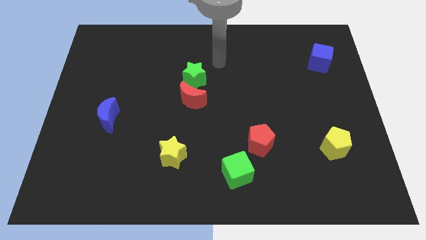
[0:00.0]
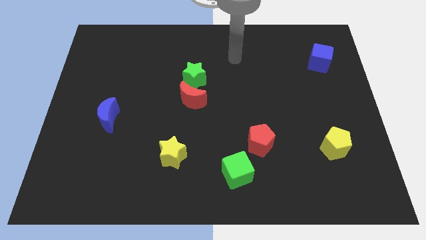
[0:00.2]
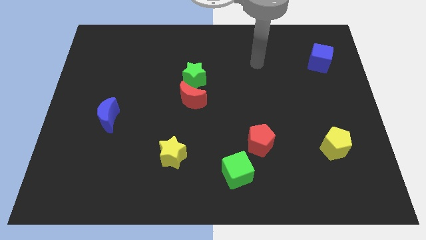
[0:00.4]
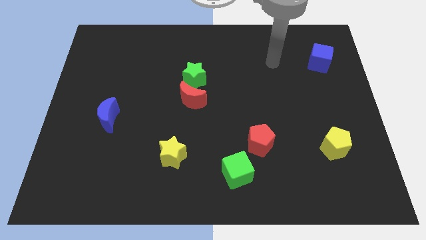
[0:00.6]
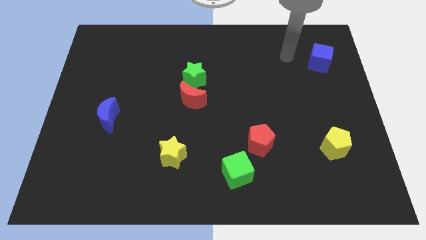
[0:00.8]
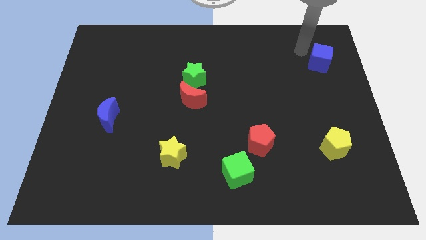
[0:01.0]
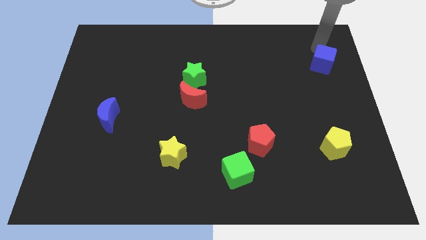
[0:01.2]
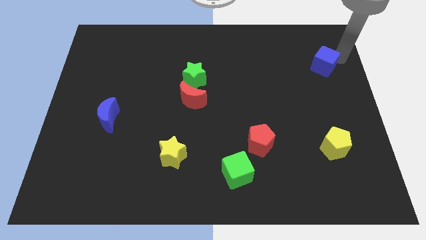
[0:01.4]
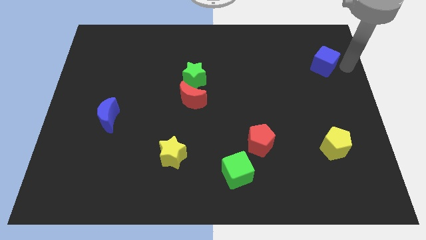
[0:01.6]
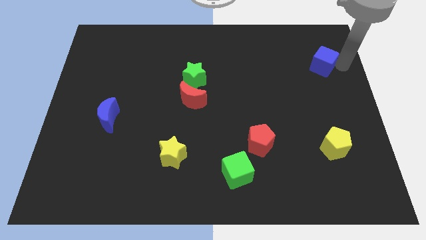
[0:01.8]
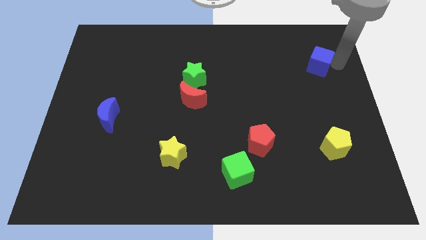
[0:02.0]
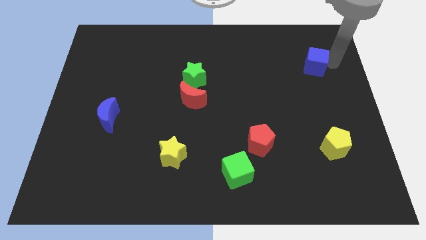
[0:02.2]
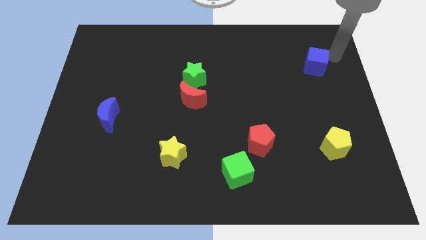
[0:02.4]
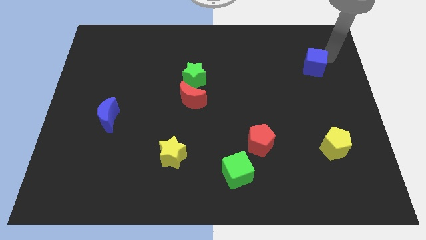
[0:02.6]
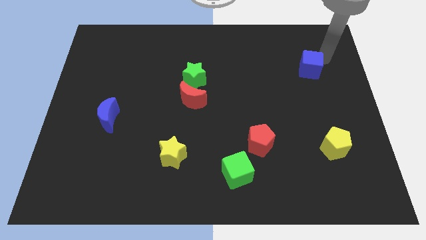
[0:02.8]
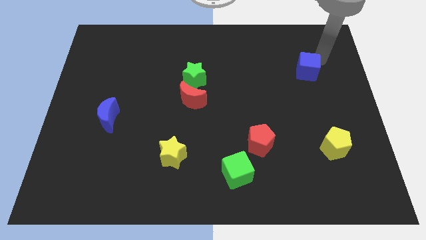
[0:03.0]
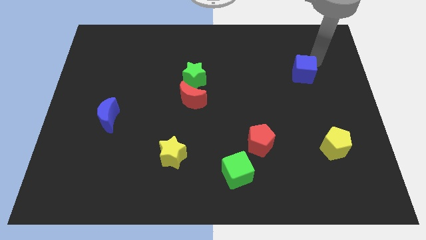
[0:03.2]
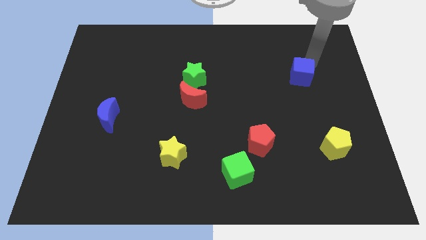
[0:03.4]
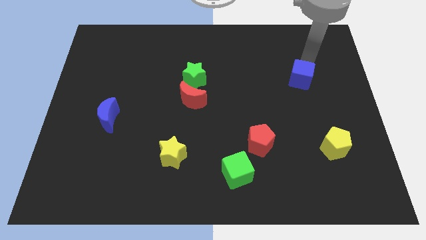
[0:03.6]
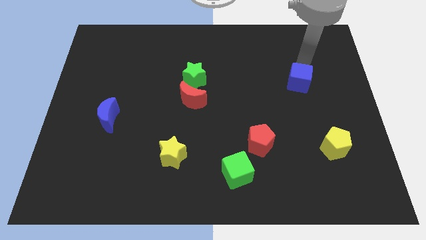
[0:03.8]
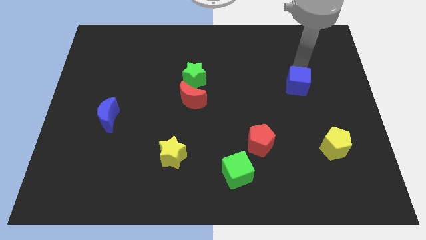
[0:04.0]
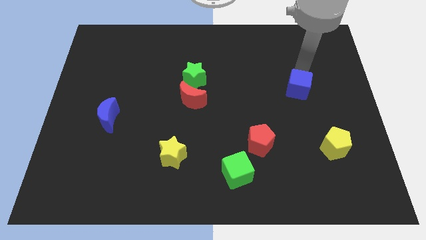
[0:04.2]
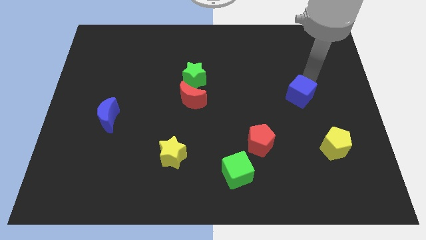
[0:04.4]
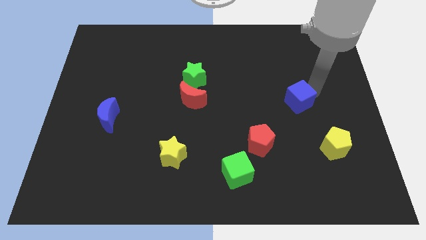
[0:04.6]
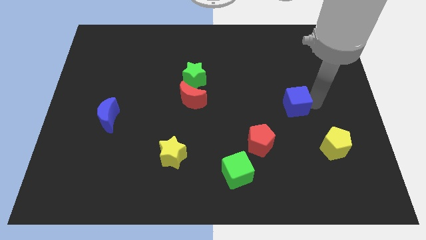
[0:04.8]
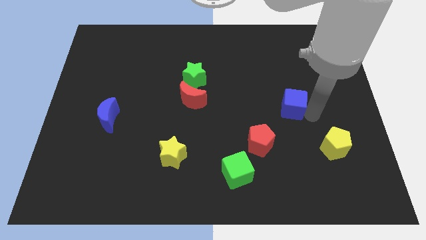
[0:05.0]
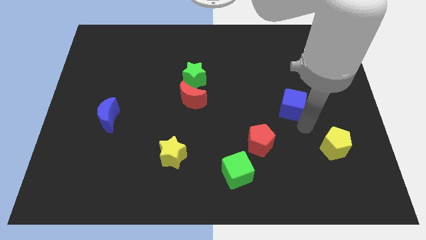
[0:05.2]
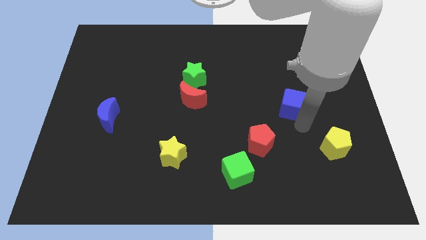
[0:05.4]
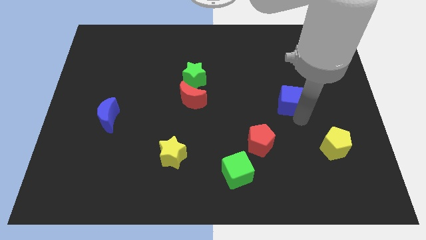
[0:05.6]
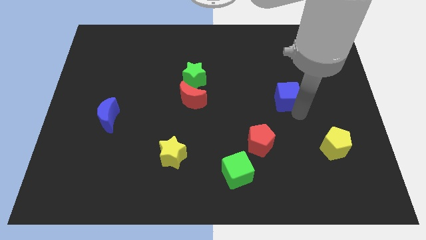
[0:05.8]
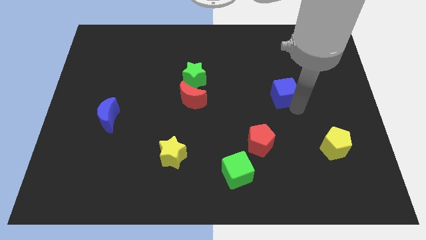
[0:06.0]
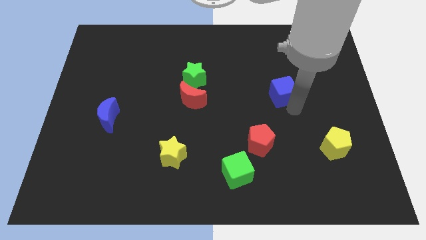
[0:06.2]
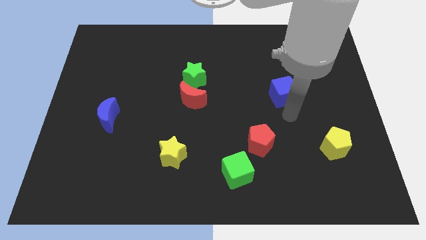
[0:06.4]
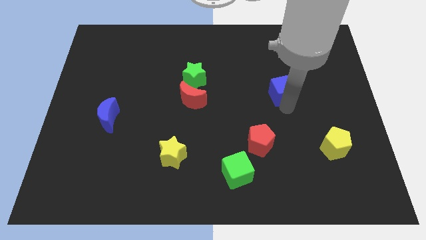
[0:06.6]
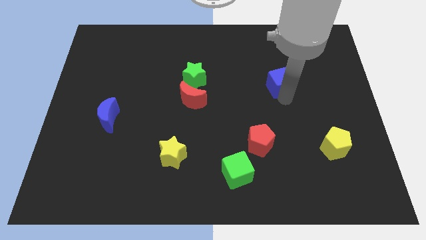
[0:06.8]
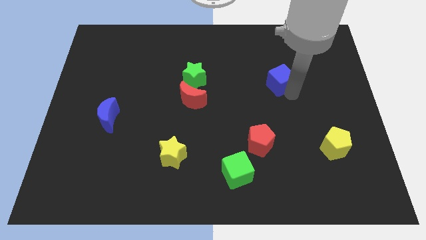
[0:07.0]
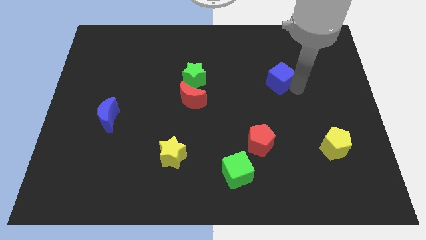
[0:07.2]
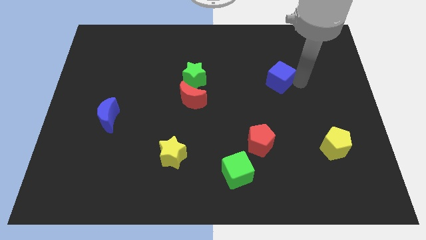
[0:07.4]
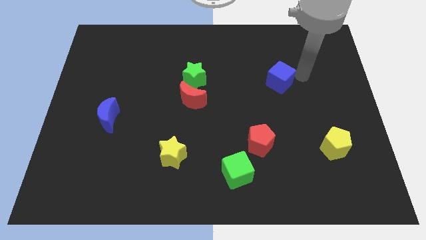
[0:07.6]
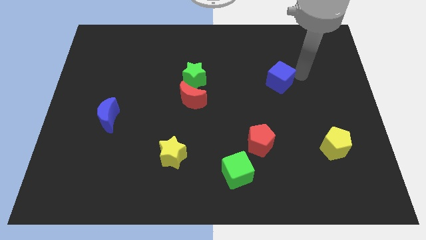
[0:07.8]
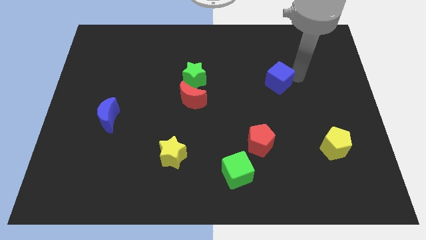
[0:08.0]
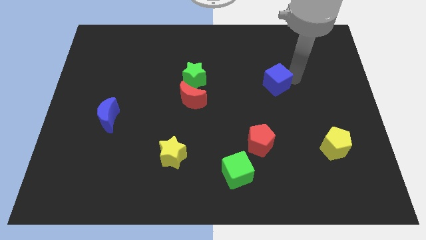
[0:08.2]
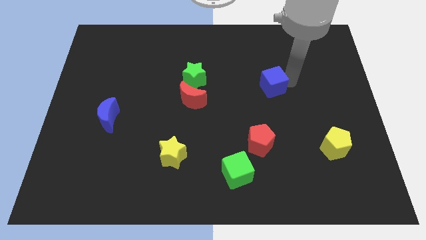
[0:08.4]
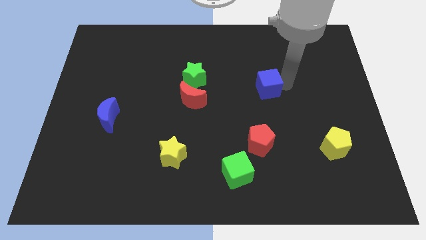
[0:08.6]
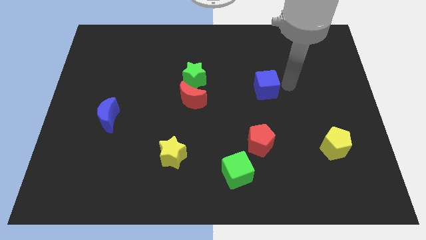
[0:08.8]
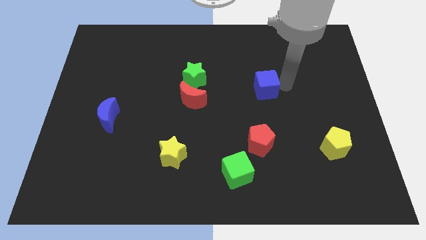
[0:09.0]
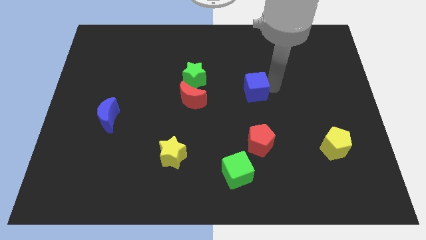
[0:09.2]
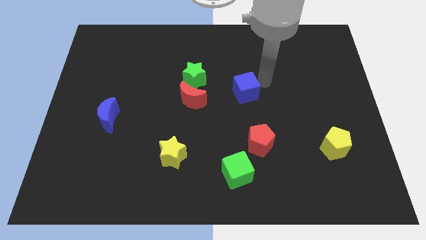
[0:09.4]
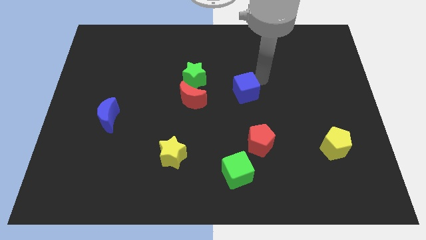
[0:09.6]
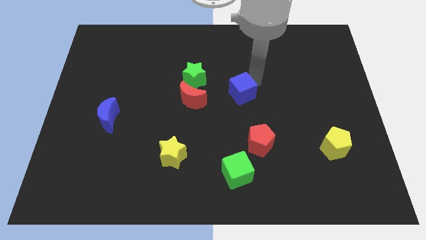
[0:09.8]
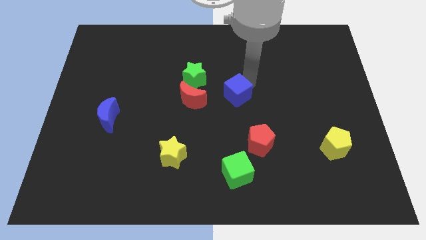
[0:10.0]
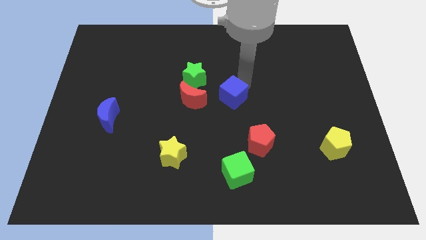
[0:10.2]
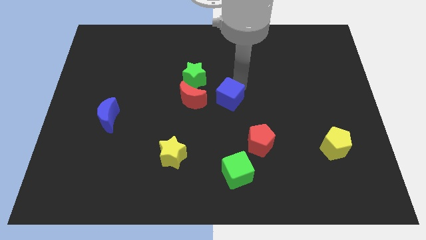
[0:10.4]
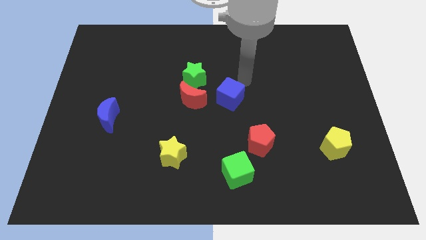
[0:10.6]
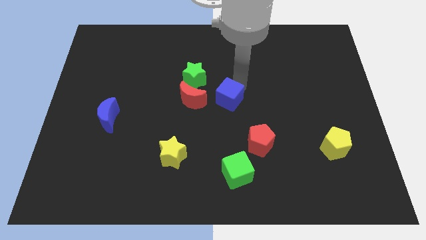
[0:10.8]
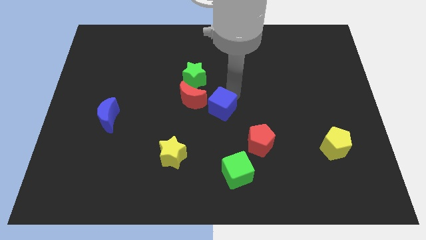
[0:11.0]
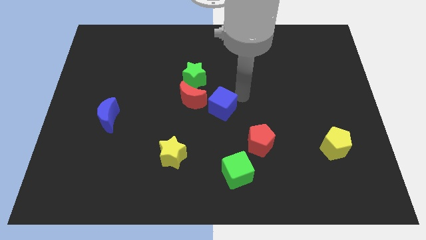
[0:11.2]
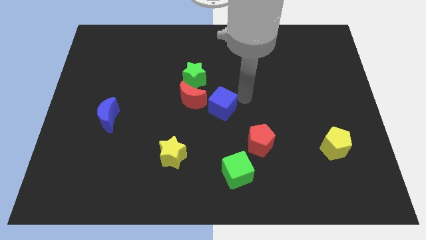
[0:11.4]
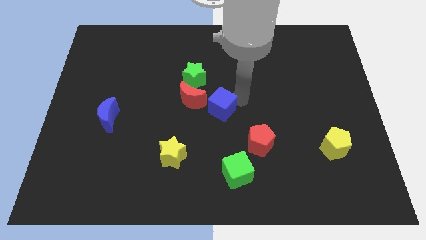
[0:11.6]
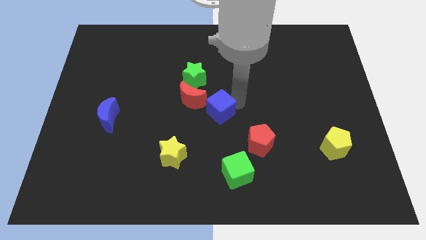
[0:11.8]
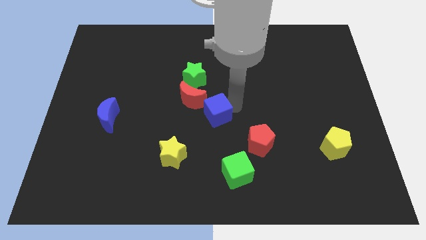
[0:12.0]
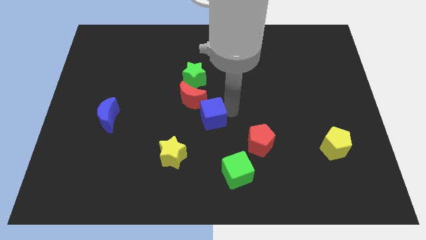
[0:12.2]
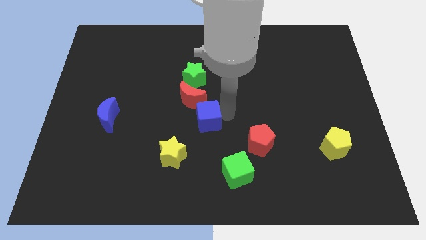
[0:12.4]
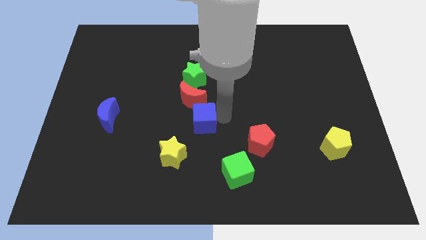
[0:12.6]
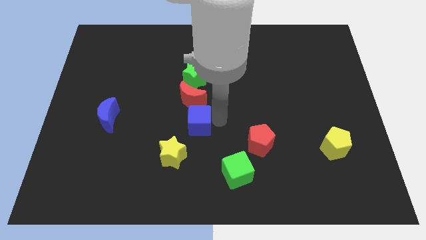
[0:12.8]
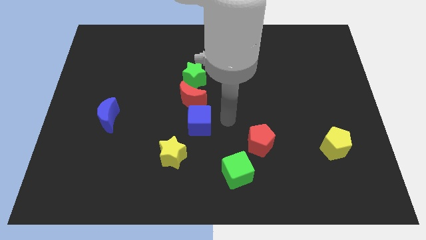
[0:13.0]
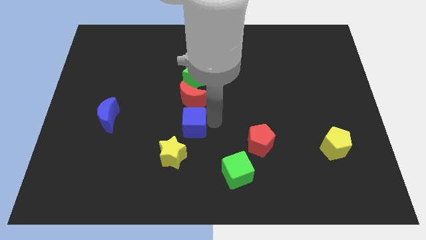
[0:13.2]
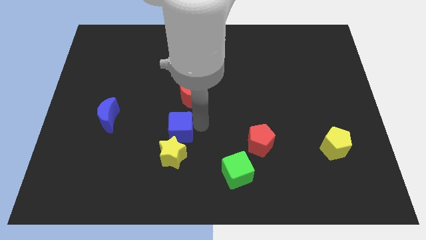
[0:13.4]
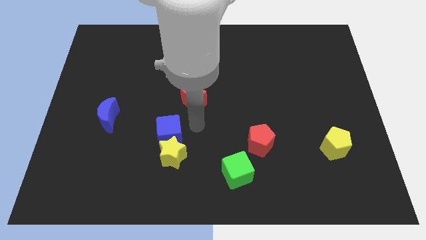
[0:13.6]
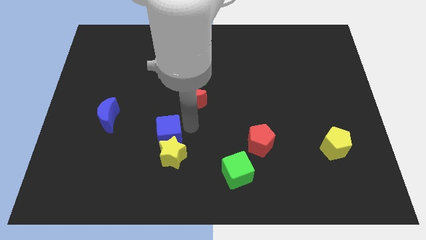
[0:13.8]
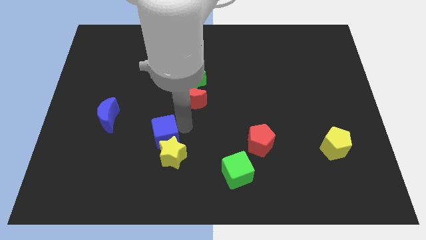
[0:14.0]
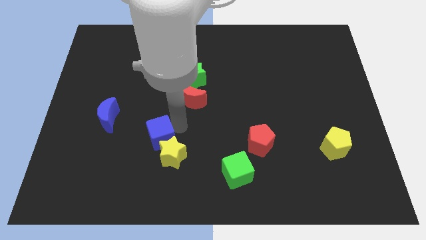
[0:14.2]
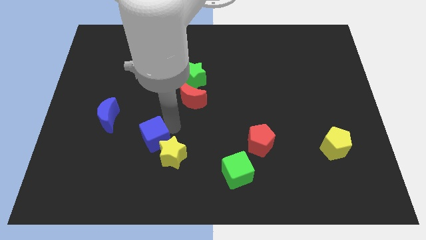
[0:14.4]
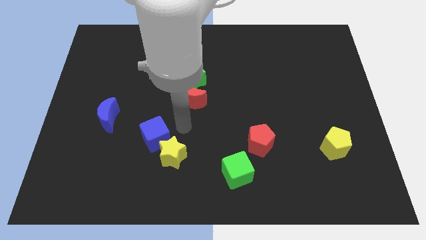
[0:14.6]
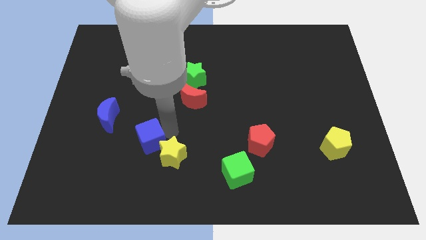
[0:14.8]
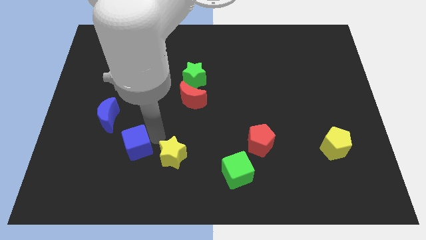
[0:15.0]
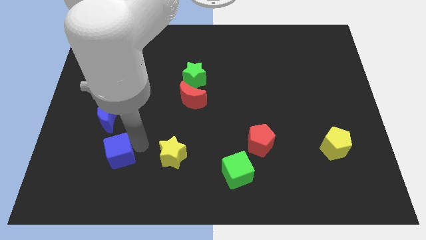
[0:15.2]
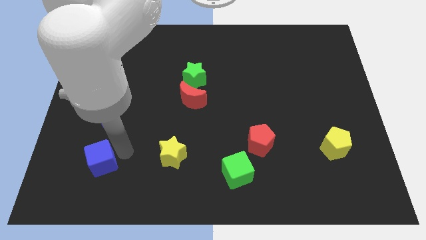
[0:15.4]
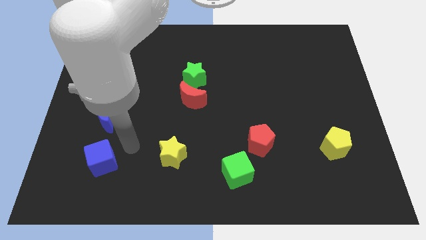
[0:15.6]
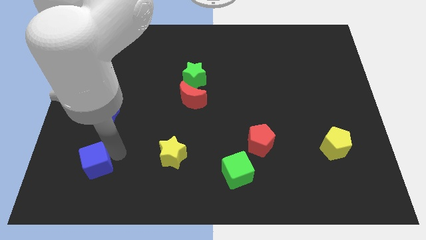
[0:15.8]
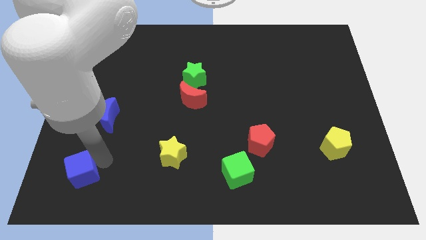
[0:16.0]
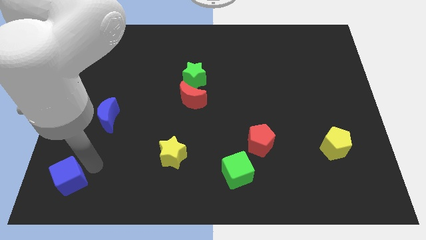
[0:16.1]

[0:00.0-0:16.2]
put the blue cube to the bottom left corner
